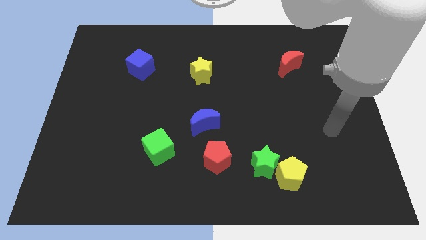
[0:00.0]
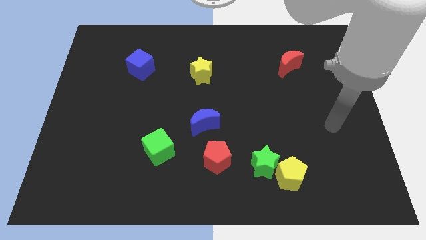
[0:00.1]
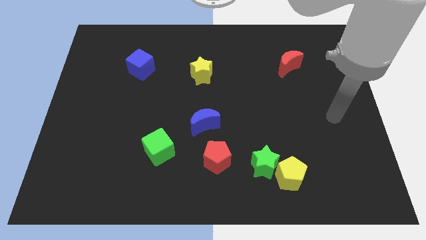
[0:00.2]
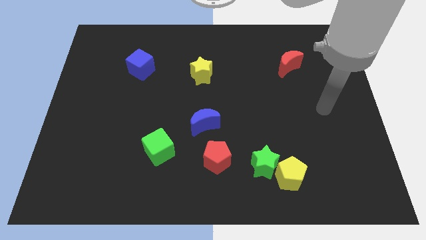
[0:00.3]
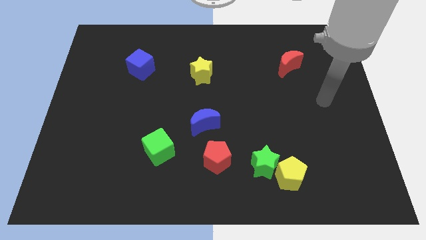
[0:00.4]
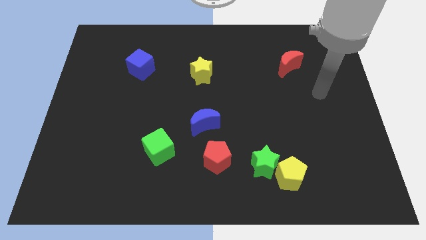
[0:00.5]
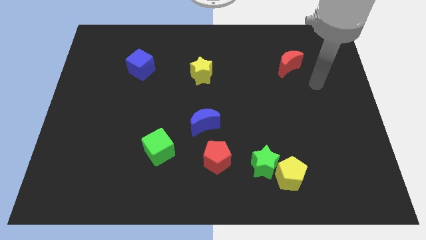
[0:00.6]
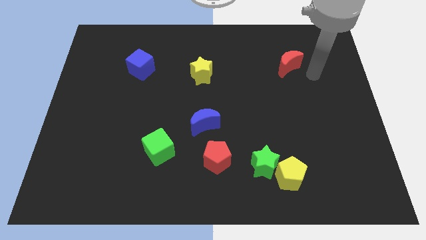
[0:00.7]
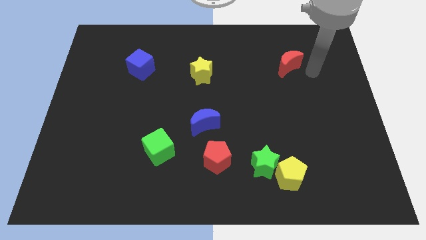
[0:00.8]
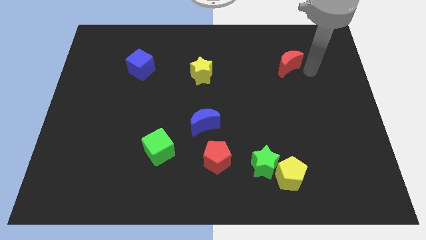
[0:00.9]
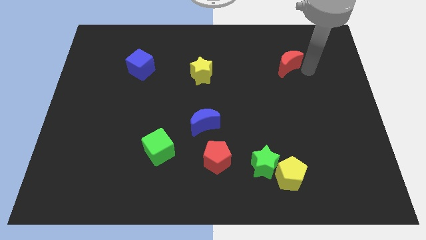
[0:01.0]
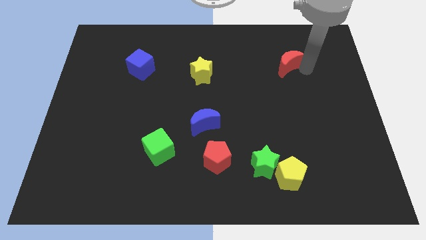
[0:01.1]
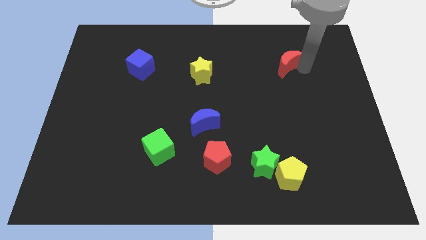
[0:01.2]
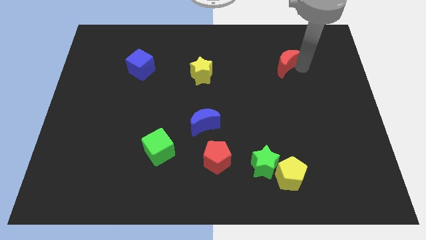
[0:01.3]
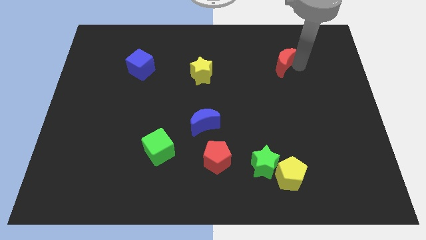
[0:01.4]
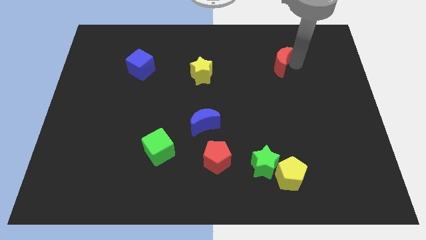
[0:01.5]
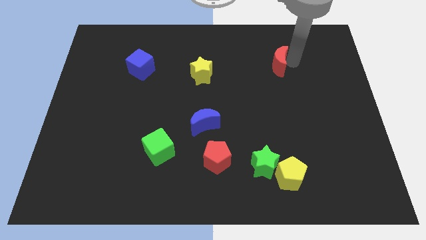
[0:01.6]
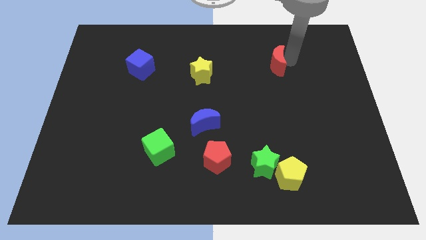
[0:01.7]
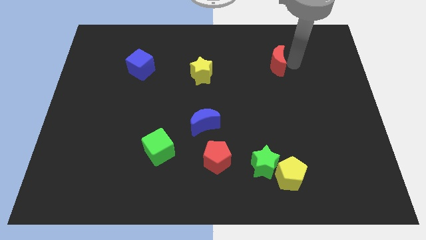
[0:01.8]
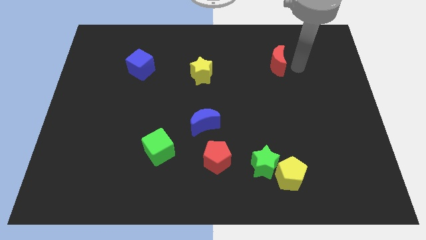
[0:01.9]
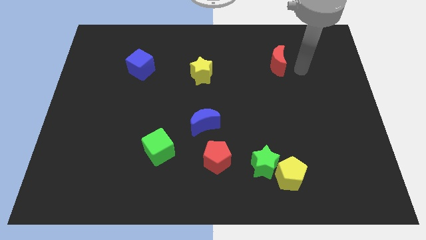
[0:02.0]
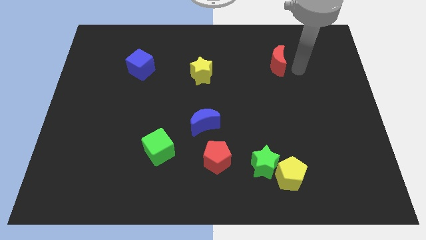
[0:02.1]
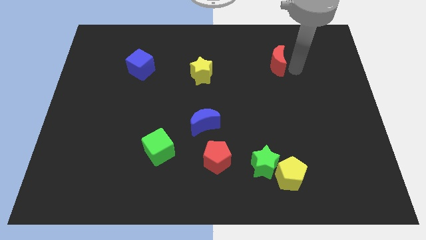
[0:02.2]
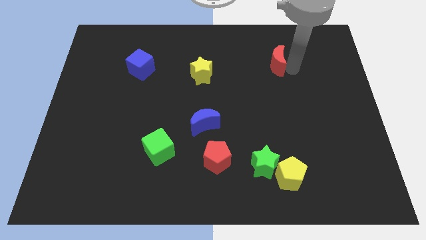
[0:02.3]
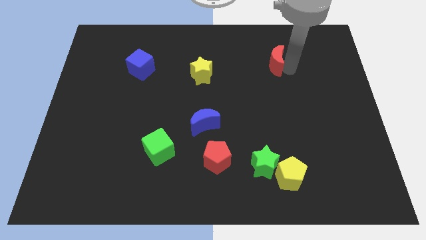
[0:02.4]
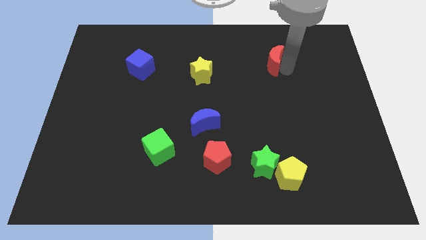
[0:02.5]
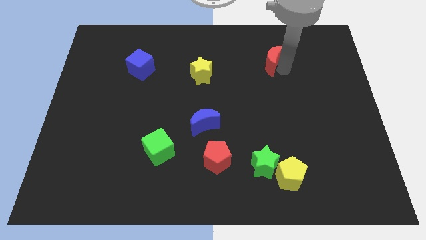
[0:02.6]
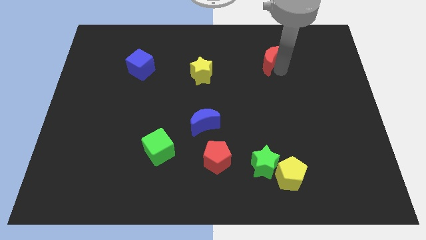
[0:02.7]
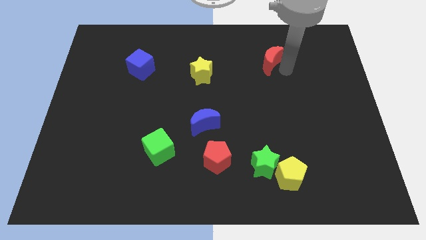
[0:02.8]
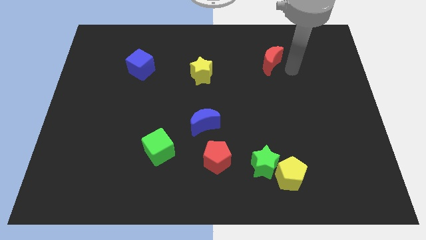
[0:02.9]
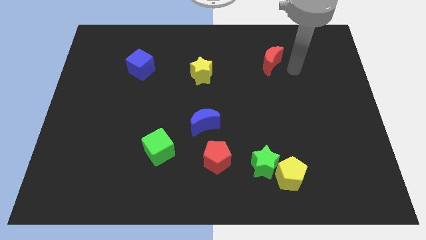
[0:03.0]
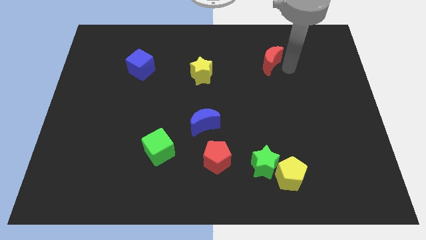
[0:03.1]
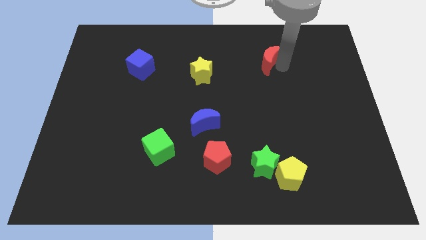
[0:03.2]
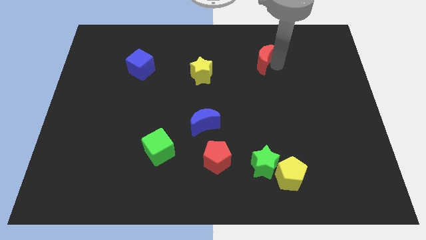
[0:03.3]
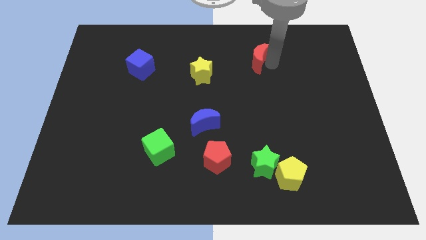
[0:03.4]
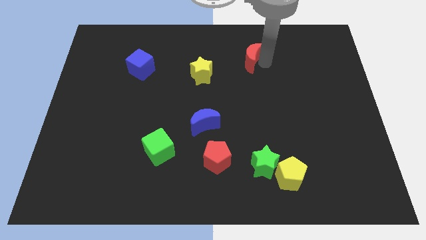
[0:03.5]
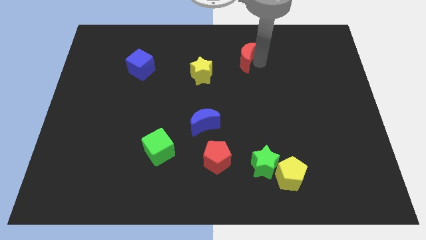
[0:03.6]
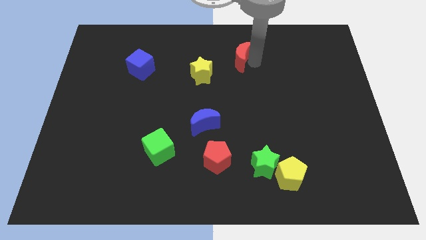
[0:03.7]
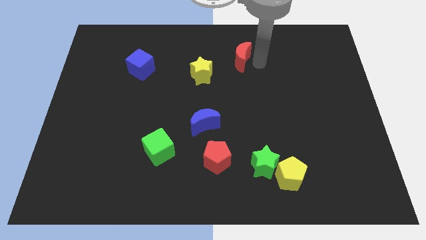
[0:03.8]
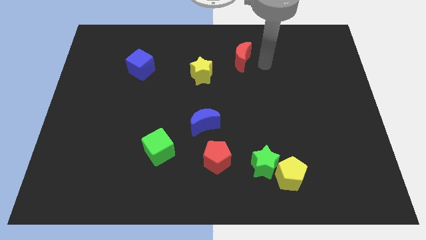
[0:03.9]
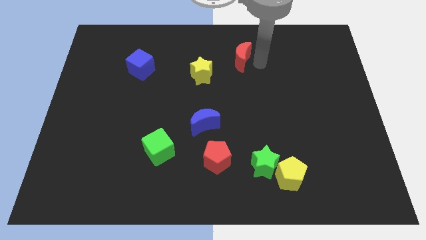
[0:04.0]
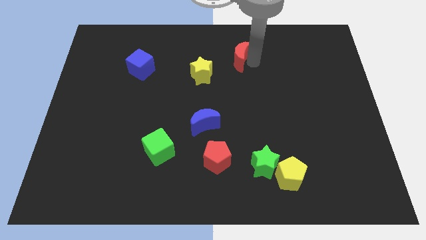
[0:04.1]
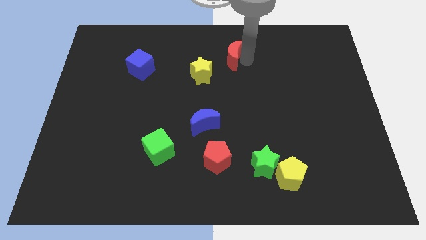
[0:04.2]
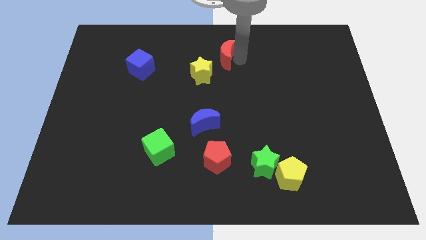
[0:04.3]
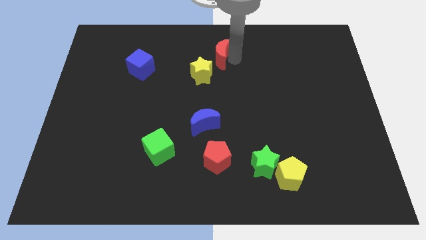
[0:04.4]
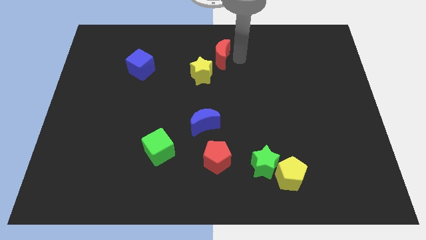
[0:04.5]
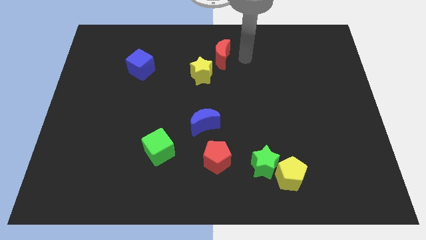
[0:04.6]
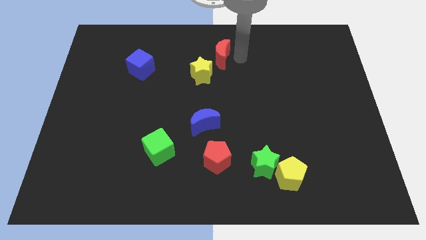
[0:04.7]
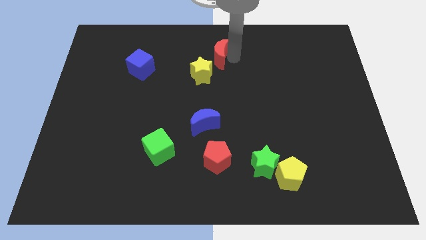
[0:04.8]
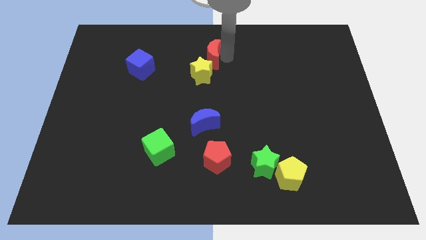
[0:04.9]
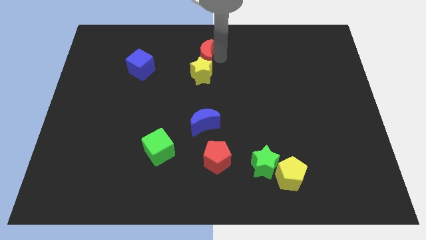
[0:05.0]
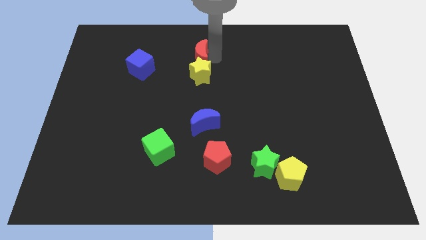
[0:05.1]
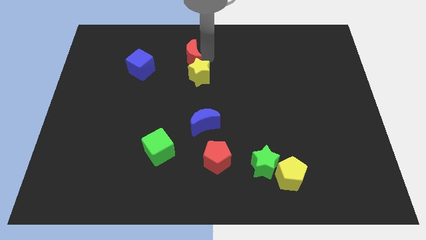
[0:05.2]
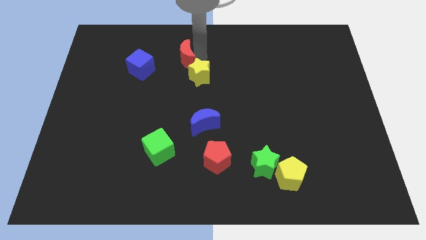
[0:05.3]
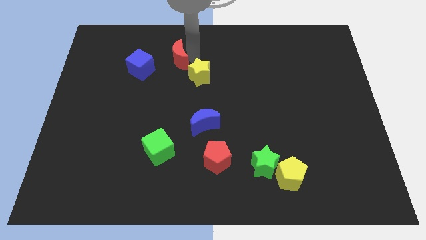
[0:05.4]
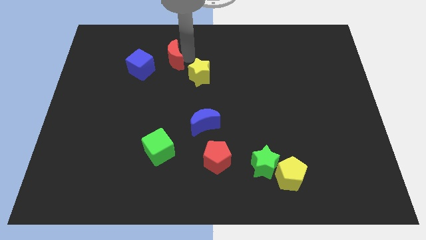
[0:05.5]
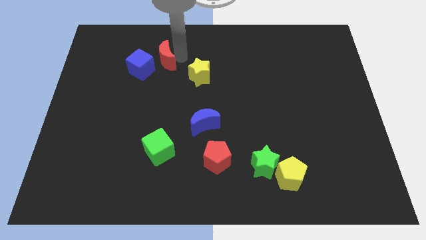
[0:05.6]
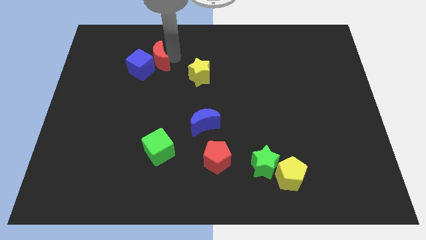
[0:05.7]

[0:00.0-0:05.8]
slide the red moon close to the blue cube

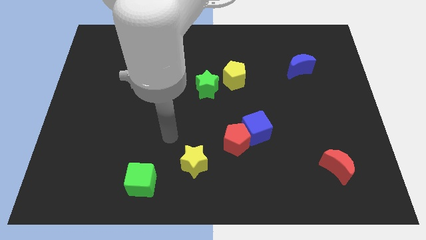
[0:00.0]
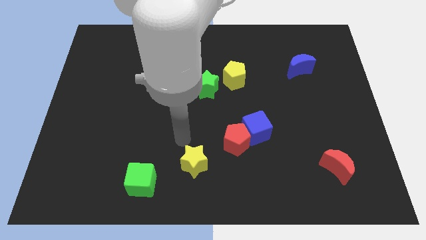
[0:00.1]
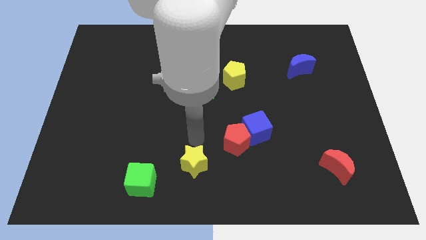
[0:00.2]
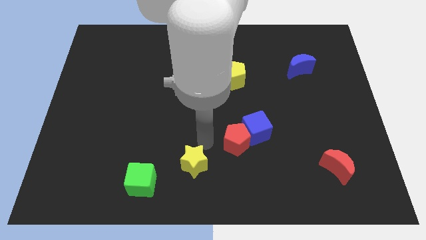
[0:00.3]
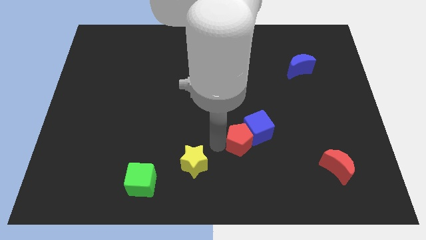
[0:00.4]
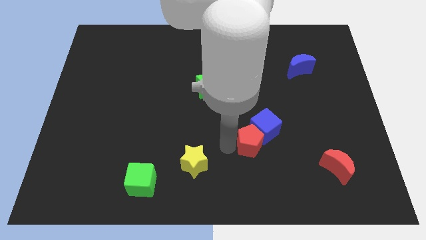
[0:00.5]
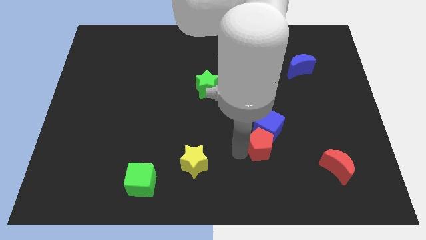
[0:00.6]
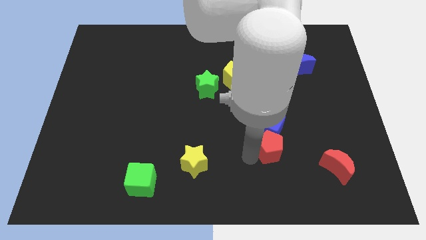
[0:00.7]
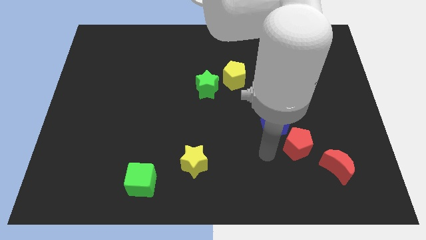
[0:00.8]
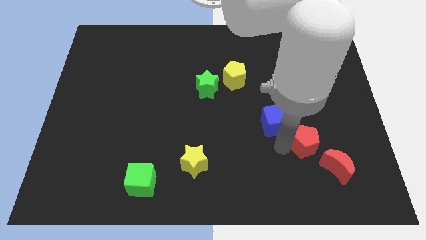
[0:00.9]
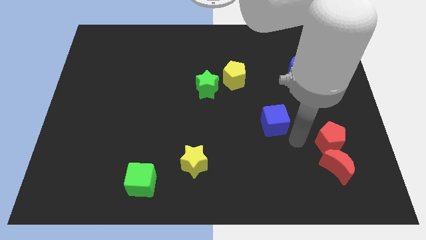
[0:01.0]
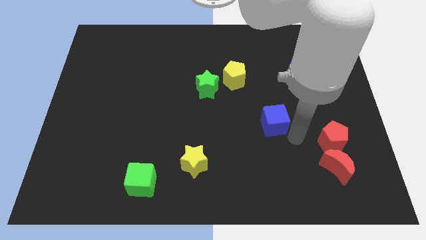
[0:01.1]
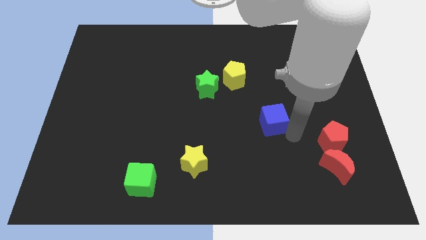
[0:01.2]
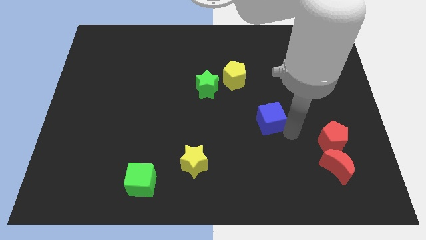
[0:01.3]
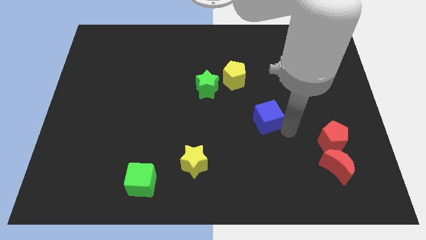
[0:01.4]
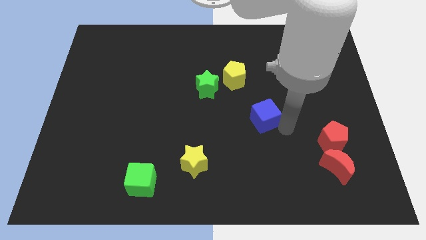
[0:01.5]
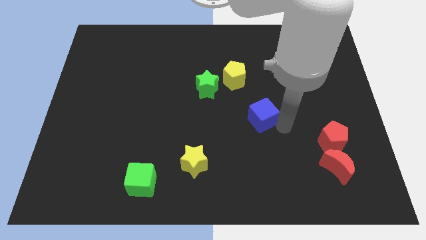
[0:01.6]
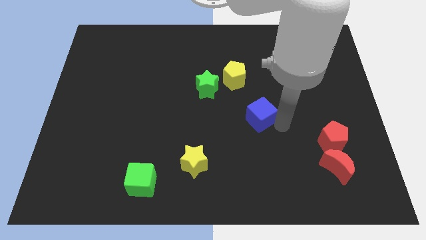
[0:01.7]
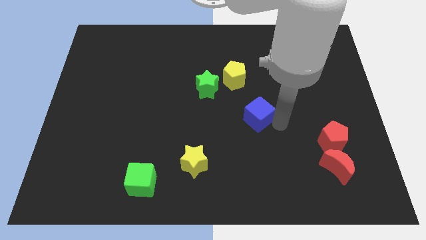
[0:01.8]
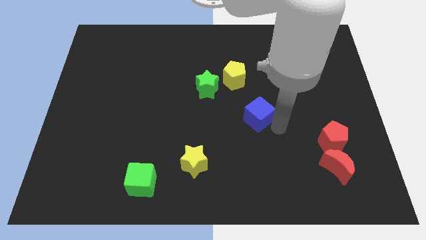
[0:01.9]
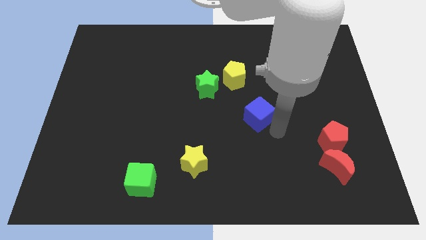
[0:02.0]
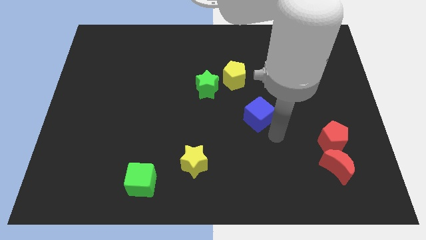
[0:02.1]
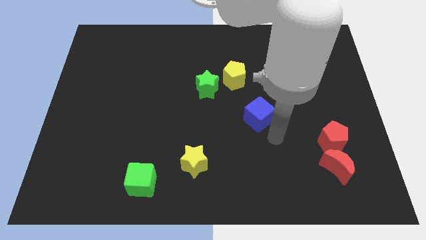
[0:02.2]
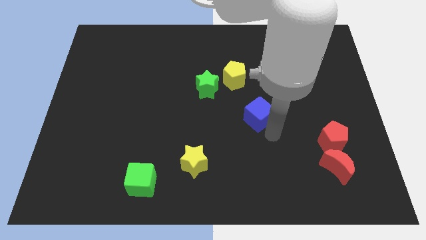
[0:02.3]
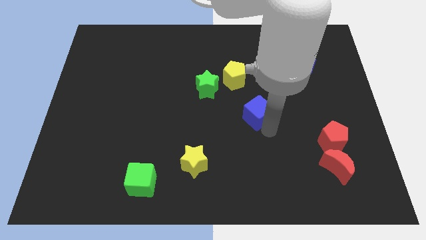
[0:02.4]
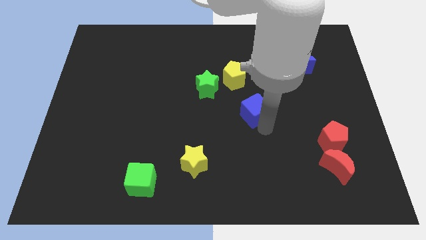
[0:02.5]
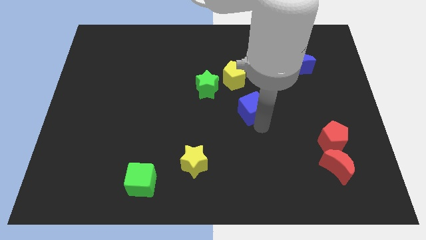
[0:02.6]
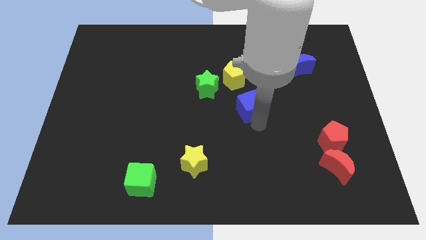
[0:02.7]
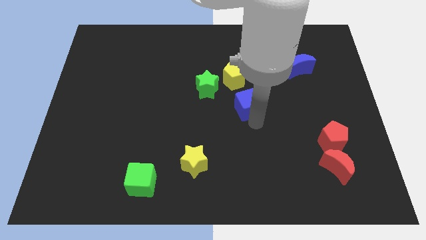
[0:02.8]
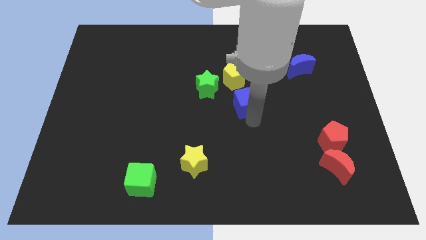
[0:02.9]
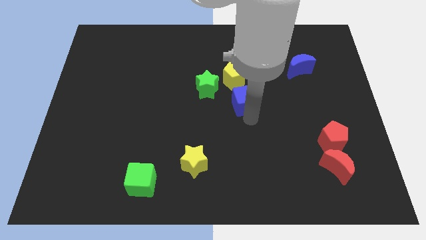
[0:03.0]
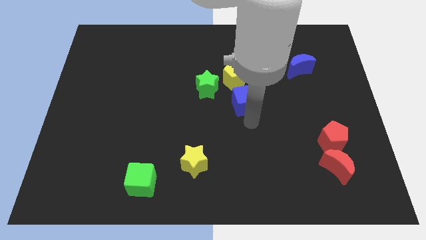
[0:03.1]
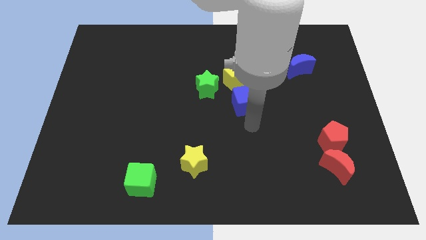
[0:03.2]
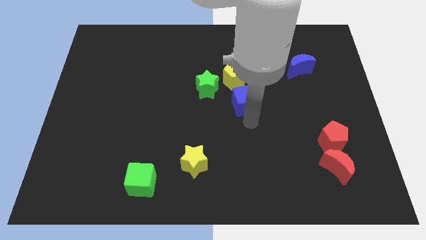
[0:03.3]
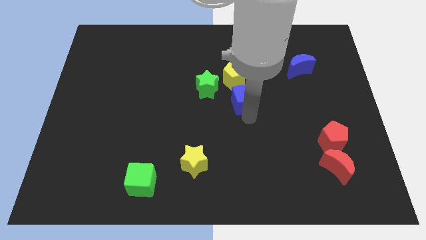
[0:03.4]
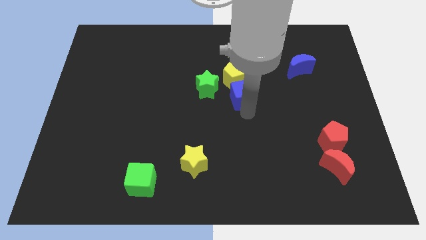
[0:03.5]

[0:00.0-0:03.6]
put the blue cube next to the yellow pentagon
